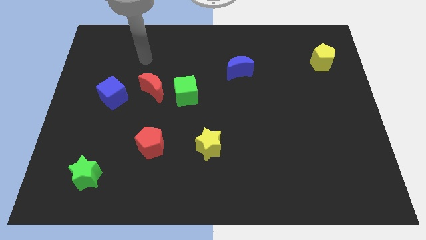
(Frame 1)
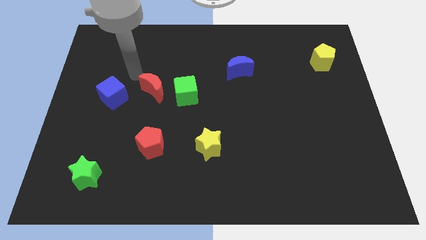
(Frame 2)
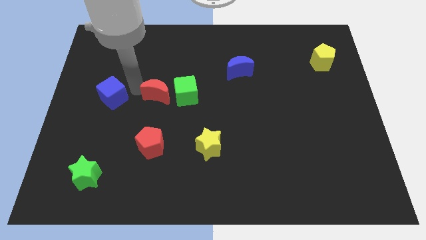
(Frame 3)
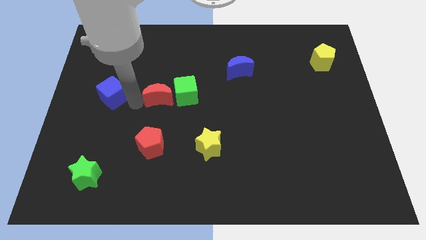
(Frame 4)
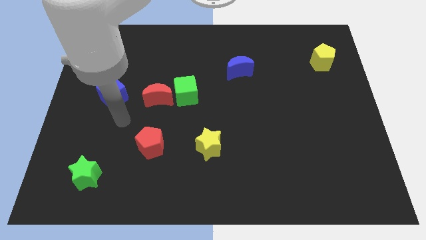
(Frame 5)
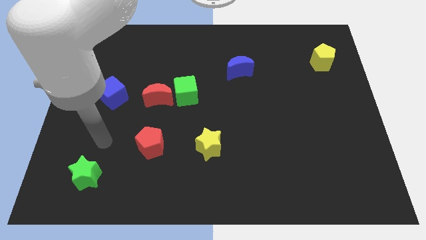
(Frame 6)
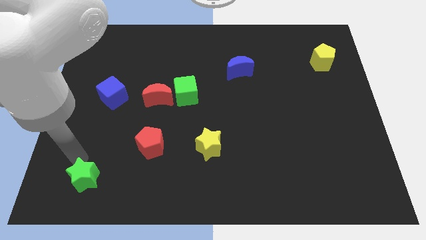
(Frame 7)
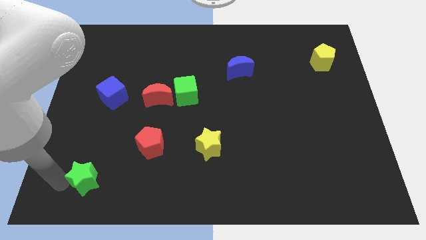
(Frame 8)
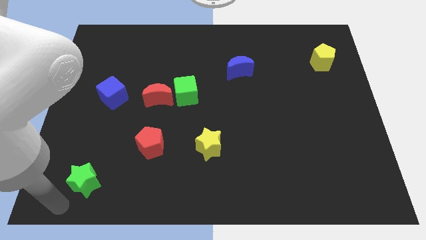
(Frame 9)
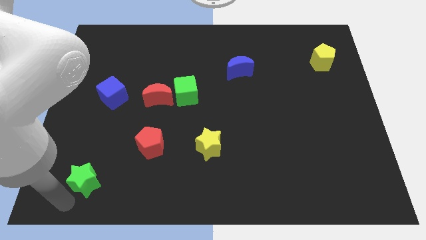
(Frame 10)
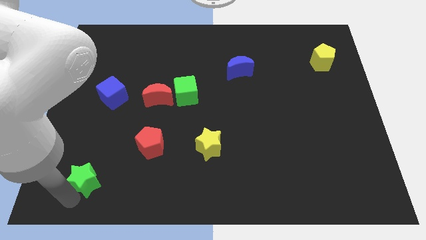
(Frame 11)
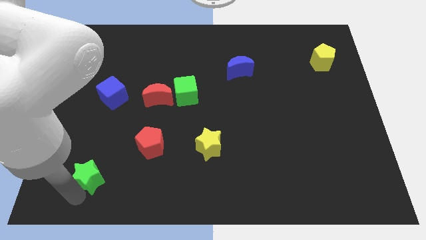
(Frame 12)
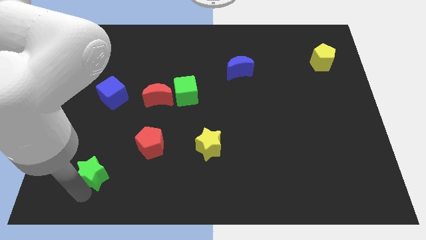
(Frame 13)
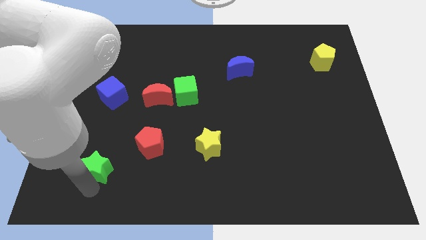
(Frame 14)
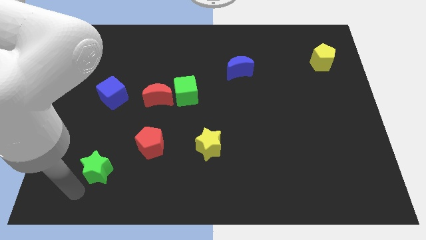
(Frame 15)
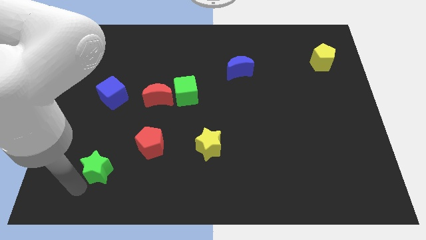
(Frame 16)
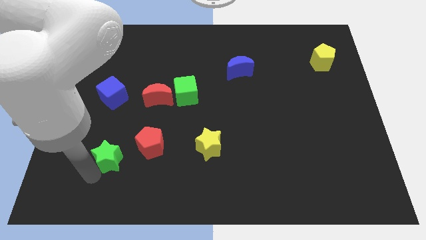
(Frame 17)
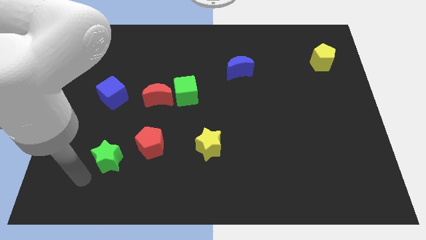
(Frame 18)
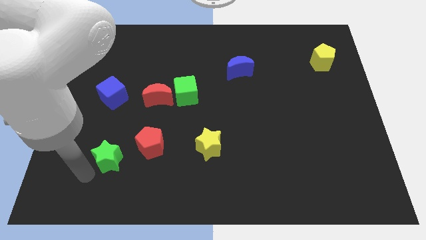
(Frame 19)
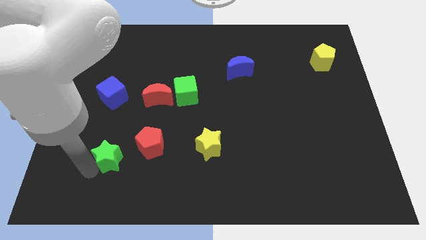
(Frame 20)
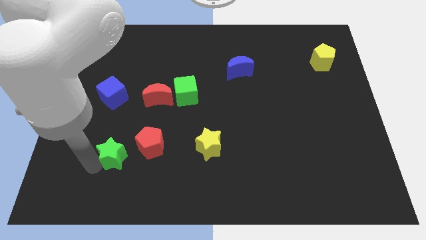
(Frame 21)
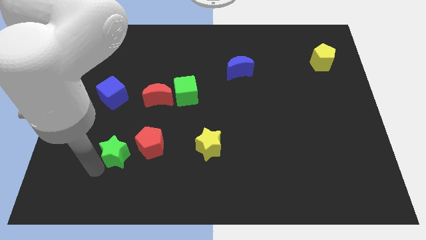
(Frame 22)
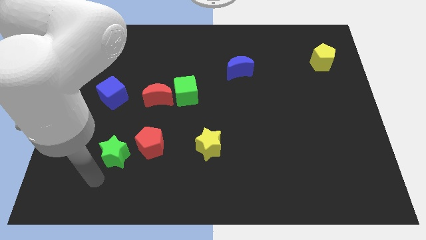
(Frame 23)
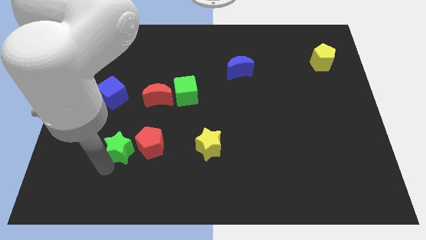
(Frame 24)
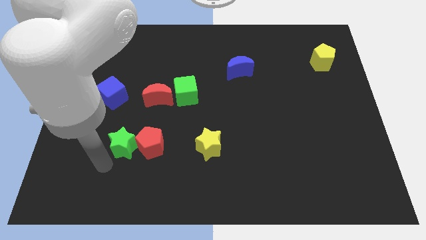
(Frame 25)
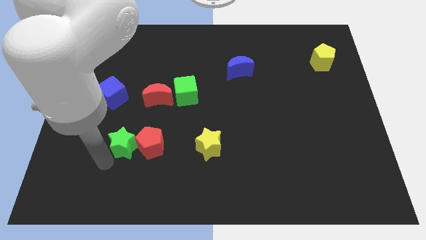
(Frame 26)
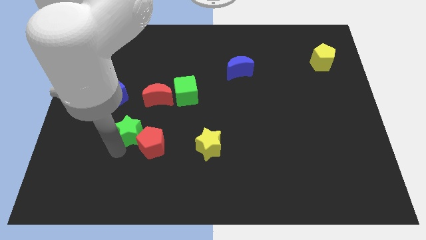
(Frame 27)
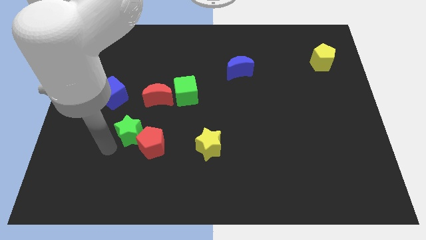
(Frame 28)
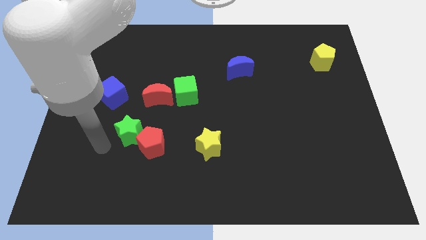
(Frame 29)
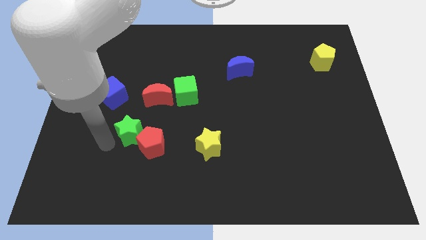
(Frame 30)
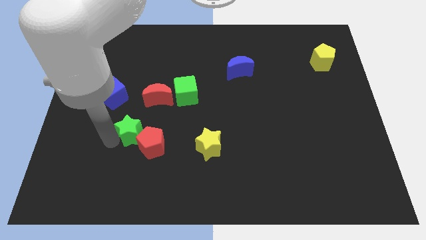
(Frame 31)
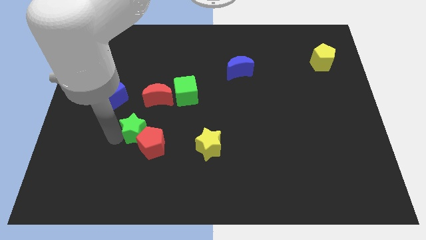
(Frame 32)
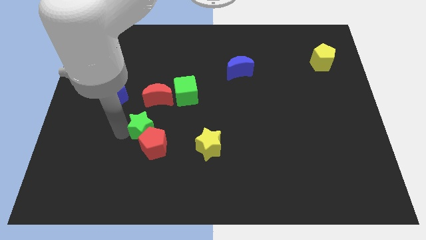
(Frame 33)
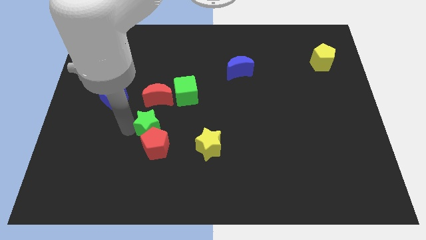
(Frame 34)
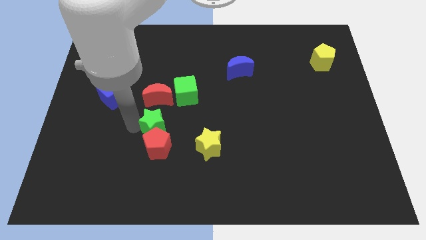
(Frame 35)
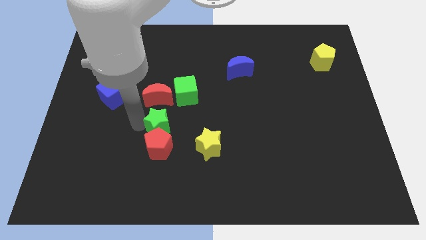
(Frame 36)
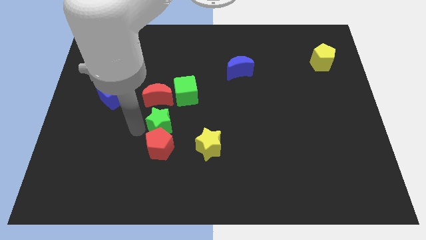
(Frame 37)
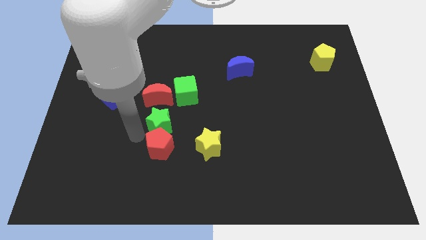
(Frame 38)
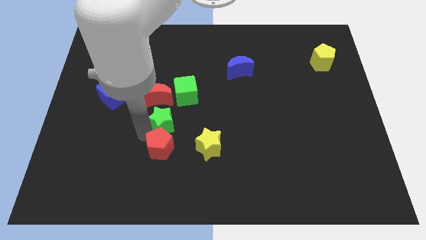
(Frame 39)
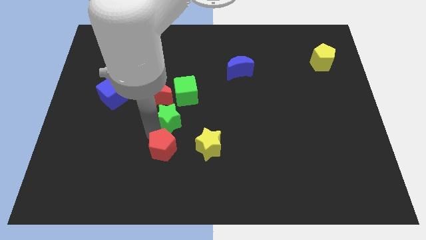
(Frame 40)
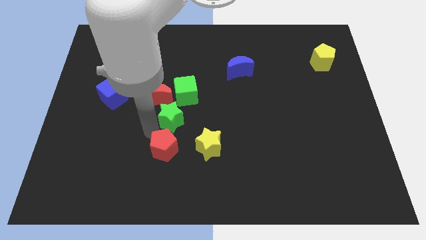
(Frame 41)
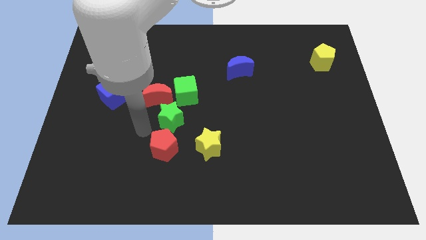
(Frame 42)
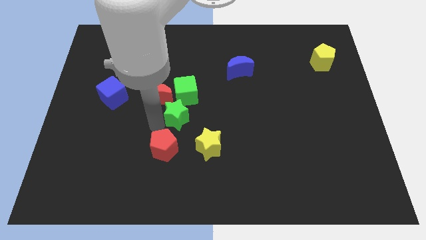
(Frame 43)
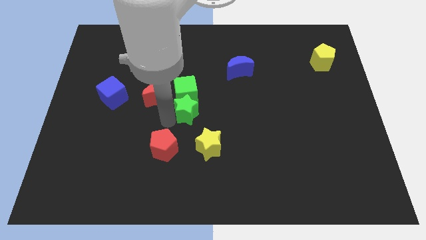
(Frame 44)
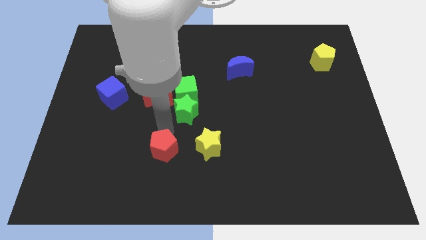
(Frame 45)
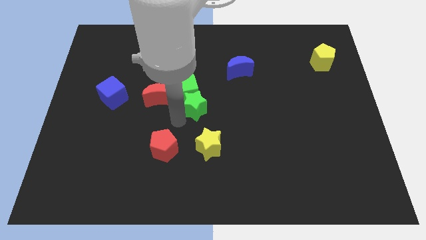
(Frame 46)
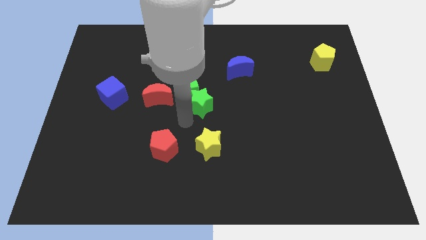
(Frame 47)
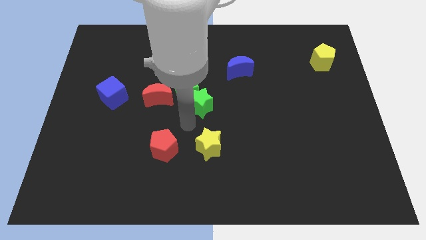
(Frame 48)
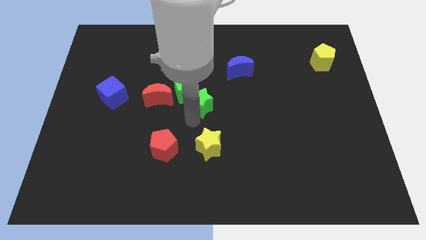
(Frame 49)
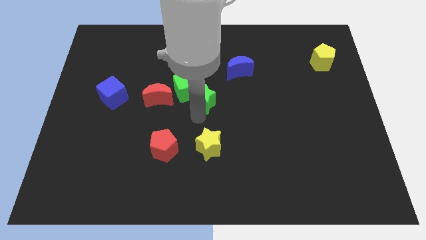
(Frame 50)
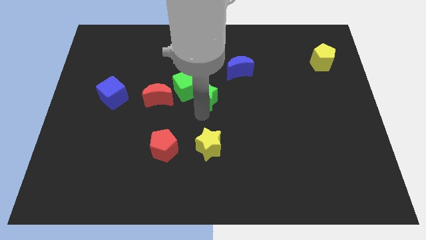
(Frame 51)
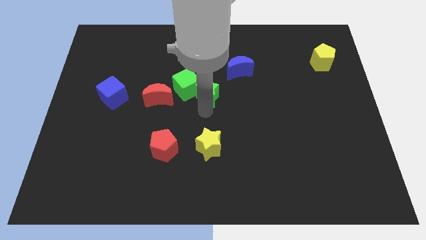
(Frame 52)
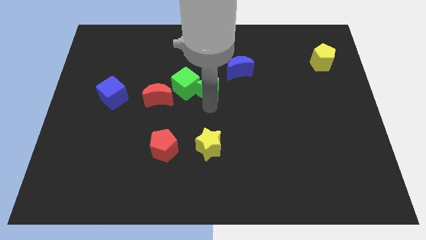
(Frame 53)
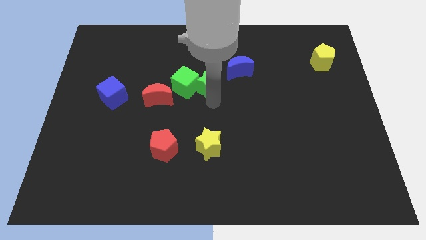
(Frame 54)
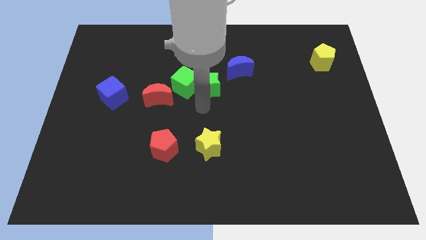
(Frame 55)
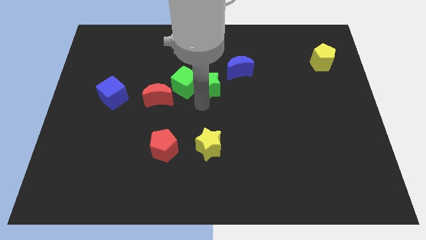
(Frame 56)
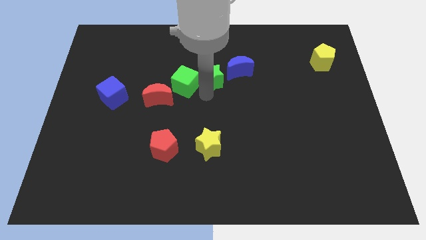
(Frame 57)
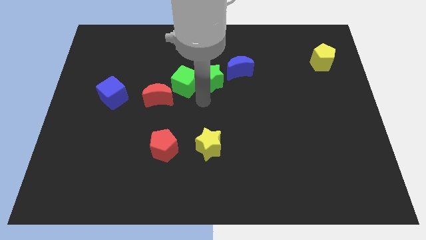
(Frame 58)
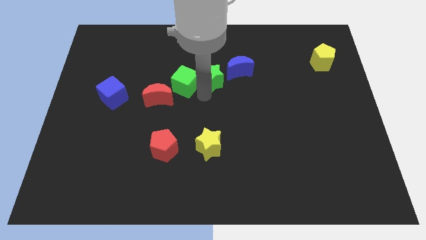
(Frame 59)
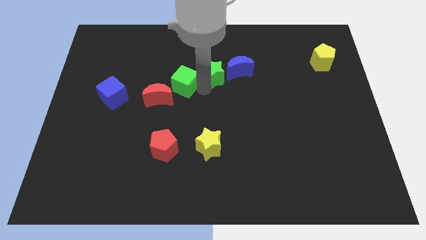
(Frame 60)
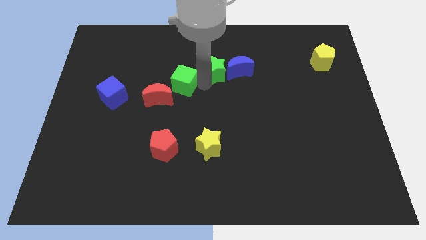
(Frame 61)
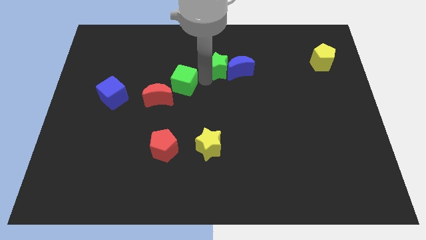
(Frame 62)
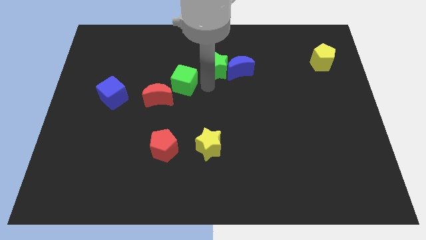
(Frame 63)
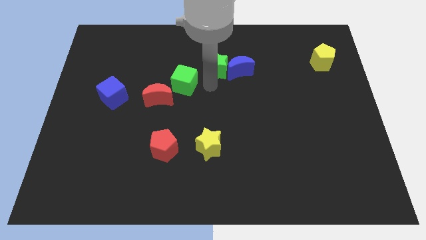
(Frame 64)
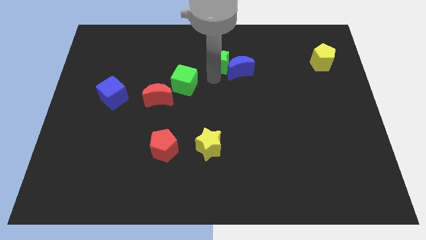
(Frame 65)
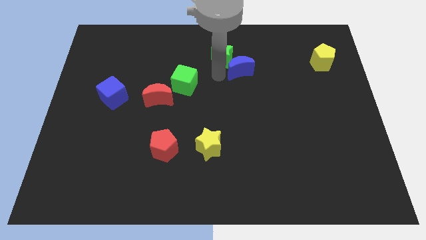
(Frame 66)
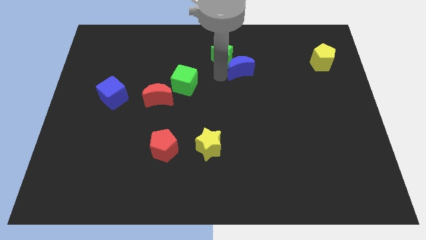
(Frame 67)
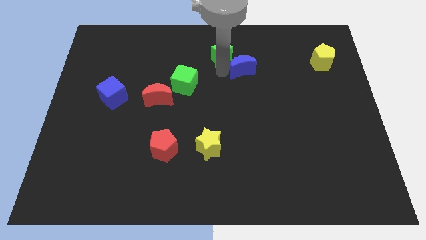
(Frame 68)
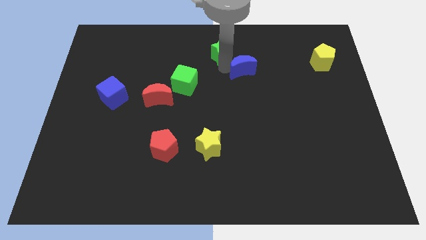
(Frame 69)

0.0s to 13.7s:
slide the green star to the top side
